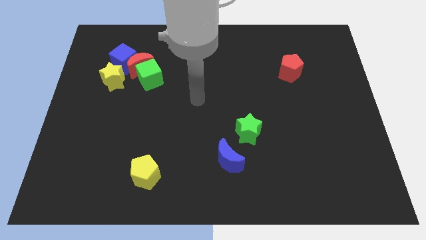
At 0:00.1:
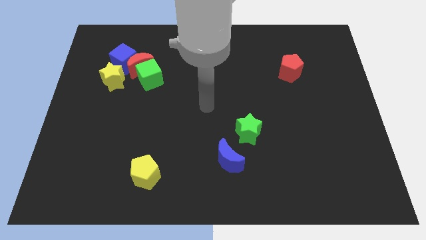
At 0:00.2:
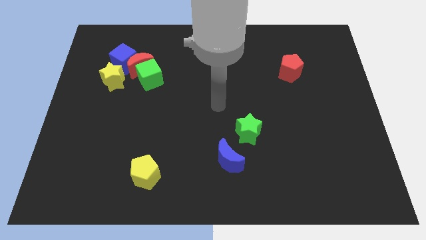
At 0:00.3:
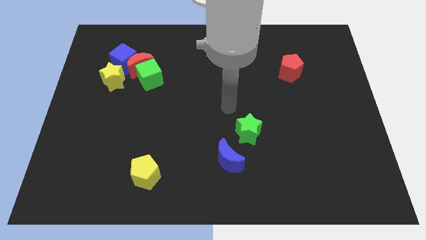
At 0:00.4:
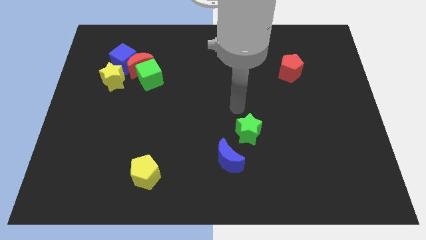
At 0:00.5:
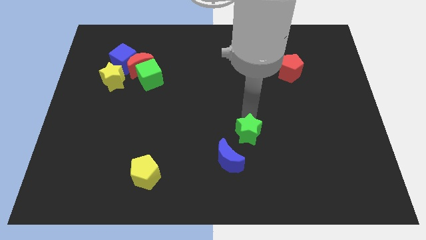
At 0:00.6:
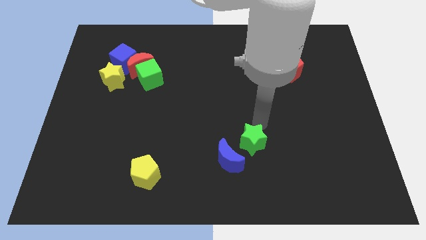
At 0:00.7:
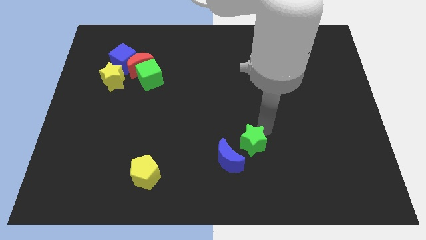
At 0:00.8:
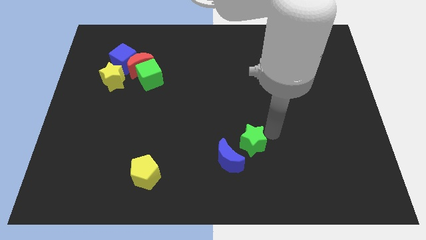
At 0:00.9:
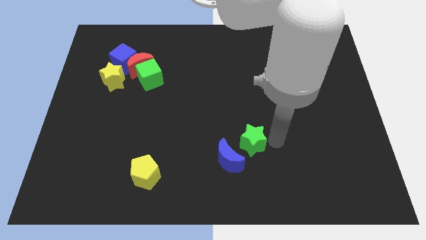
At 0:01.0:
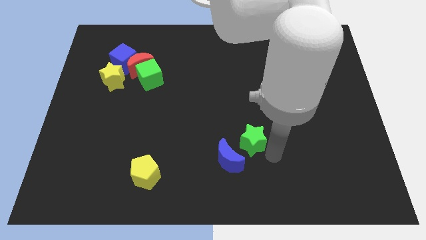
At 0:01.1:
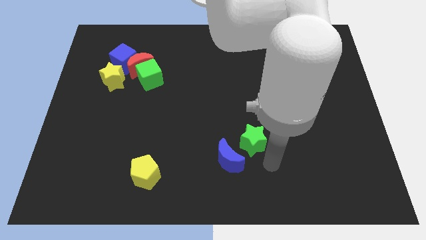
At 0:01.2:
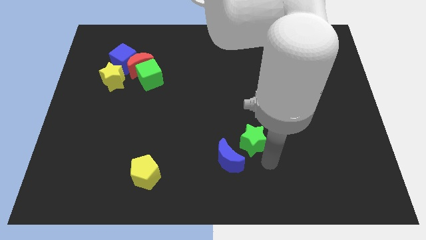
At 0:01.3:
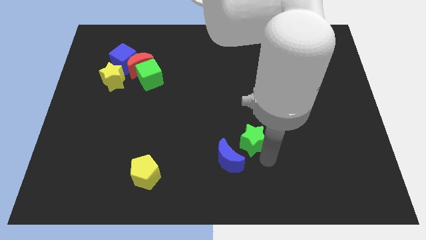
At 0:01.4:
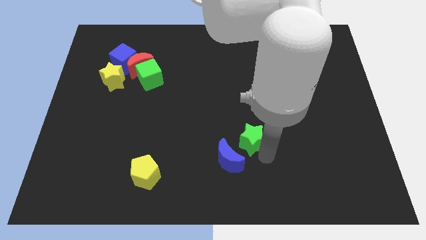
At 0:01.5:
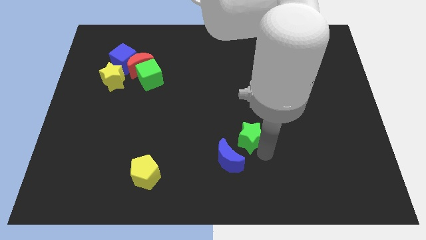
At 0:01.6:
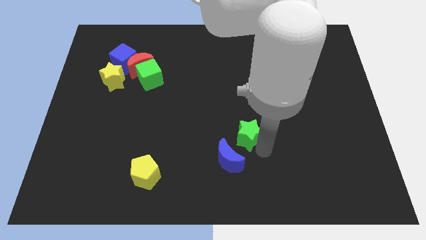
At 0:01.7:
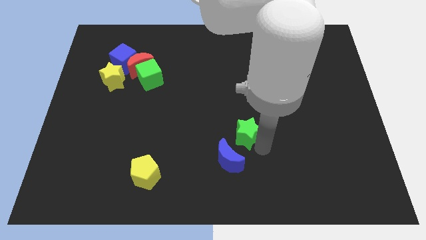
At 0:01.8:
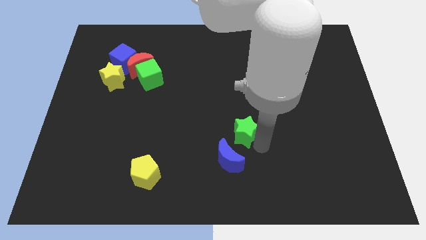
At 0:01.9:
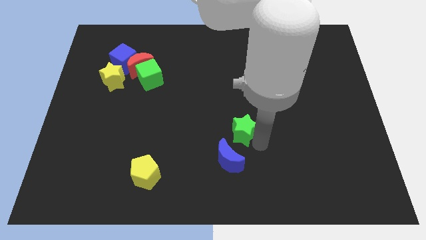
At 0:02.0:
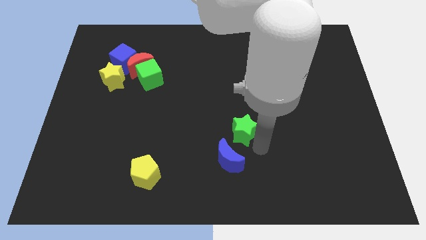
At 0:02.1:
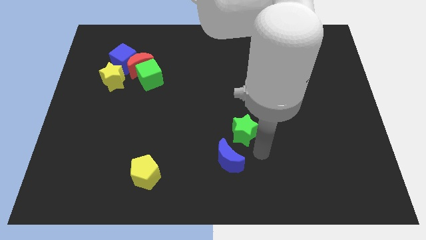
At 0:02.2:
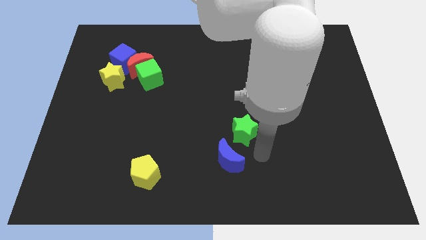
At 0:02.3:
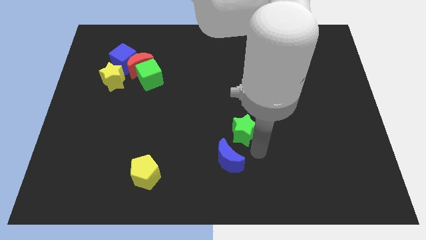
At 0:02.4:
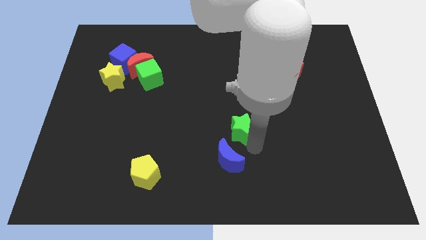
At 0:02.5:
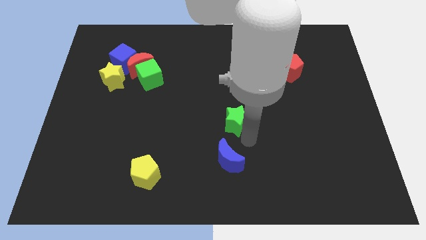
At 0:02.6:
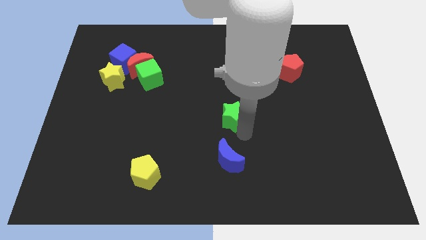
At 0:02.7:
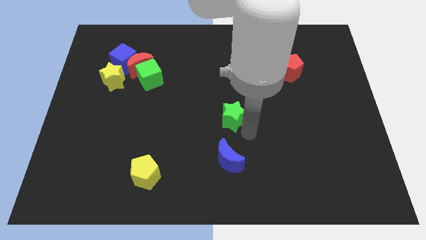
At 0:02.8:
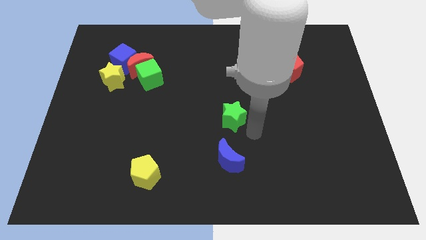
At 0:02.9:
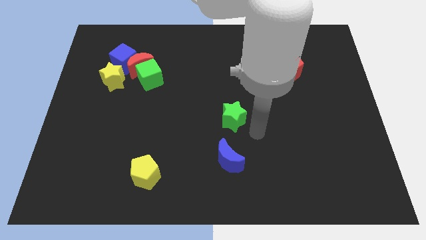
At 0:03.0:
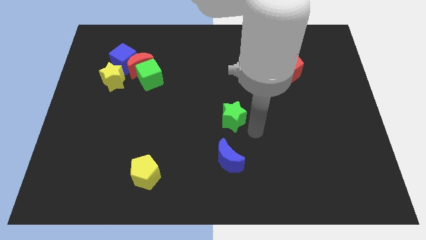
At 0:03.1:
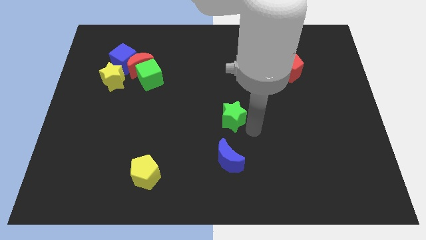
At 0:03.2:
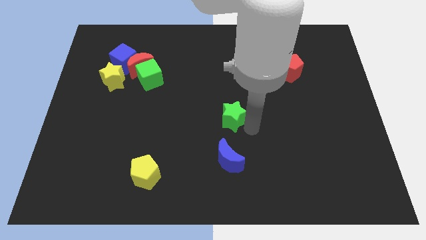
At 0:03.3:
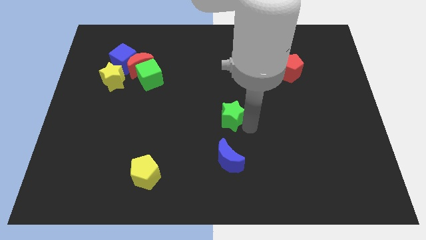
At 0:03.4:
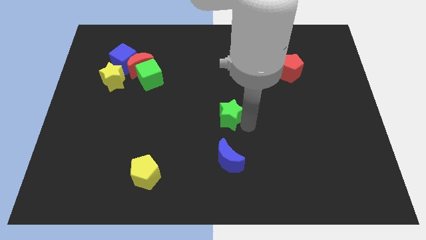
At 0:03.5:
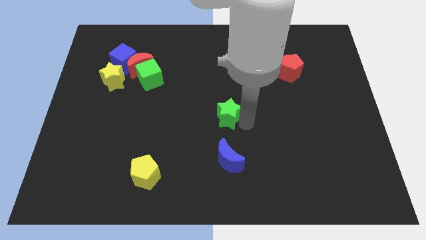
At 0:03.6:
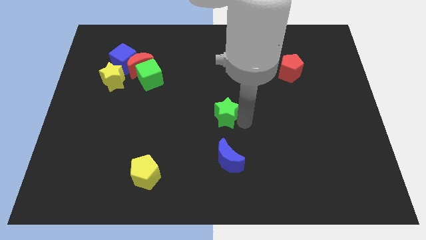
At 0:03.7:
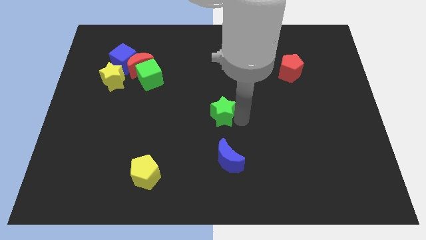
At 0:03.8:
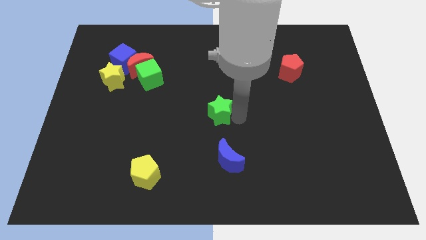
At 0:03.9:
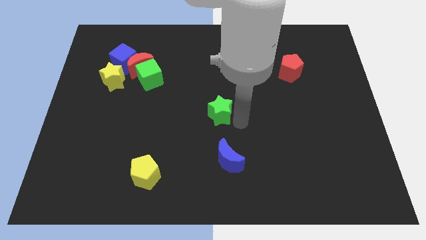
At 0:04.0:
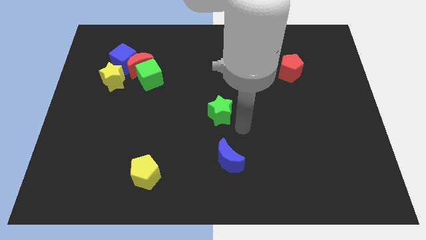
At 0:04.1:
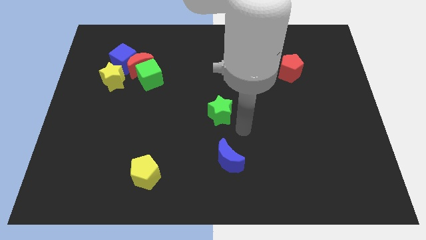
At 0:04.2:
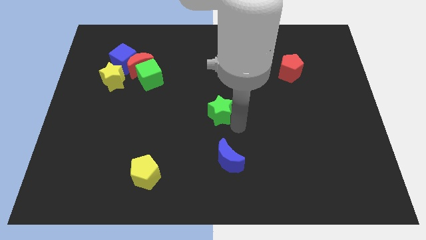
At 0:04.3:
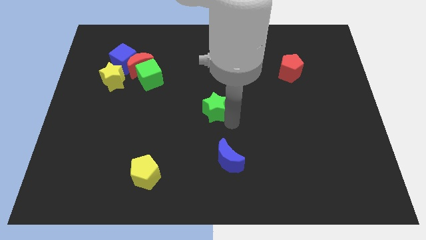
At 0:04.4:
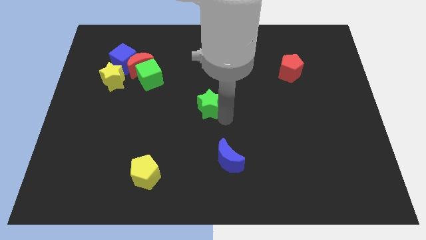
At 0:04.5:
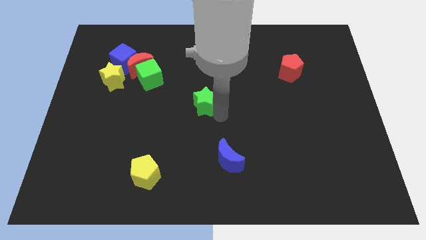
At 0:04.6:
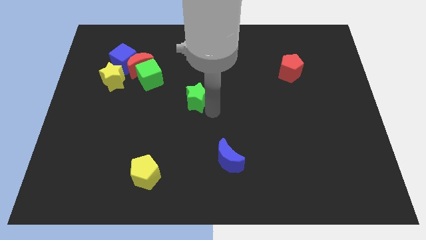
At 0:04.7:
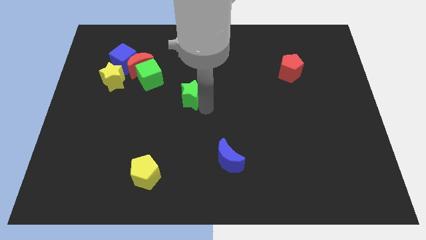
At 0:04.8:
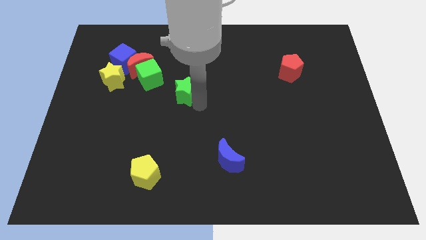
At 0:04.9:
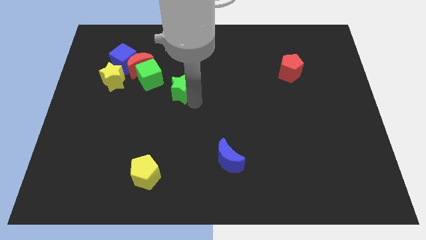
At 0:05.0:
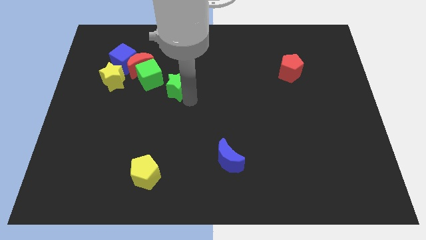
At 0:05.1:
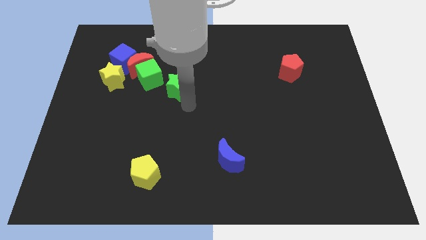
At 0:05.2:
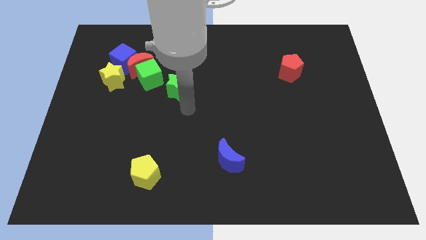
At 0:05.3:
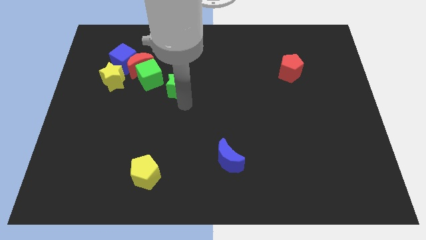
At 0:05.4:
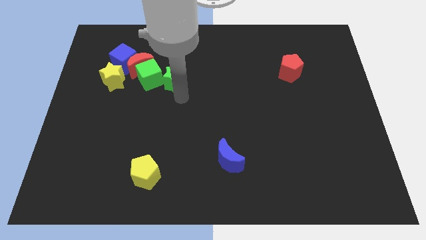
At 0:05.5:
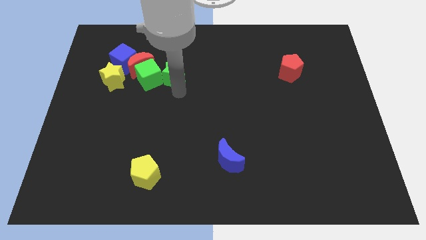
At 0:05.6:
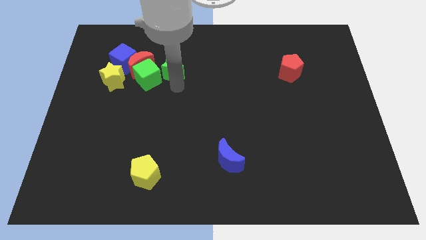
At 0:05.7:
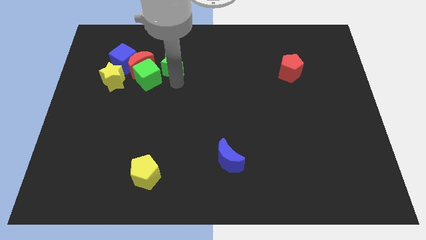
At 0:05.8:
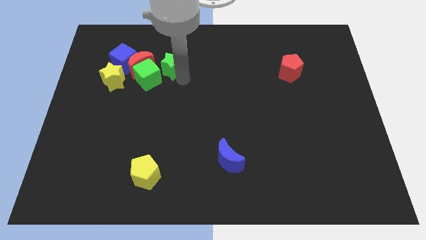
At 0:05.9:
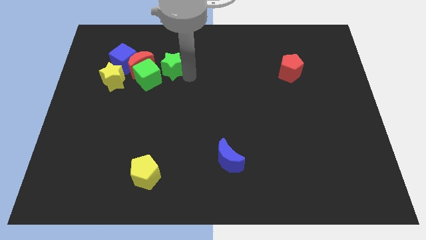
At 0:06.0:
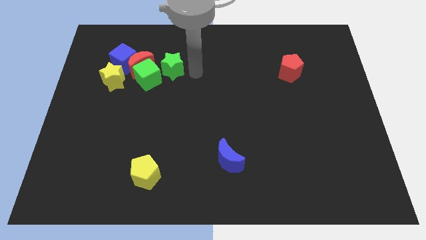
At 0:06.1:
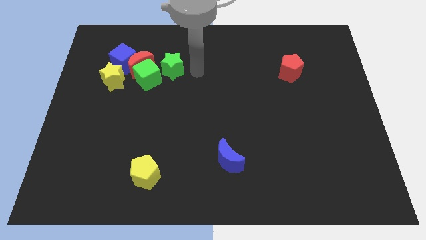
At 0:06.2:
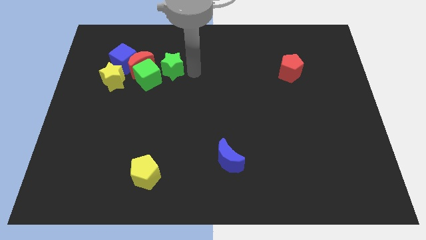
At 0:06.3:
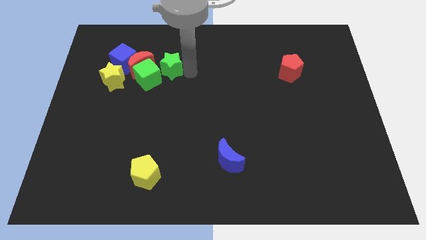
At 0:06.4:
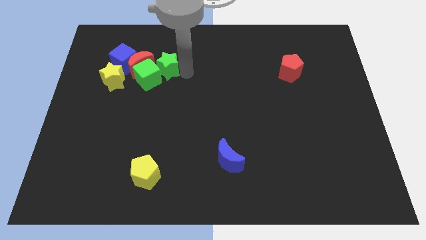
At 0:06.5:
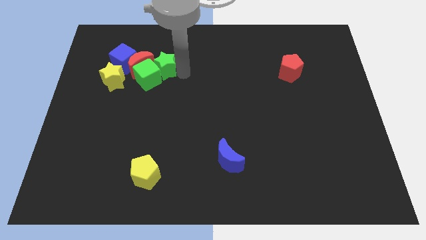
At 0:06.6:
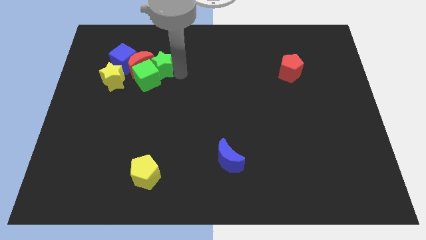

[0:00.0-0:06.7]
slide the green star close to the red moon

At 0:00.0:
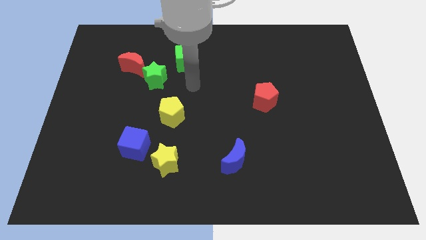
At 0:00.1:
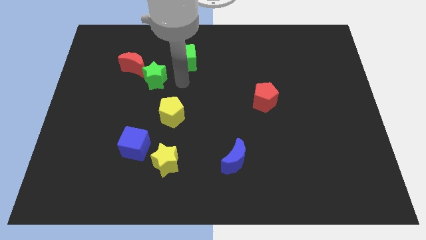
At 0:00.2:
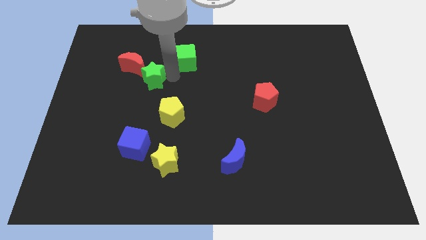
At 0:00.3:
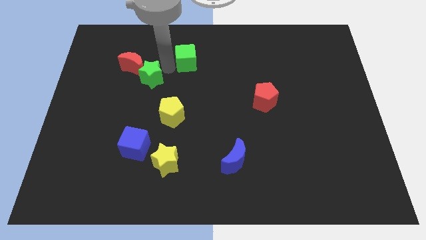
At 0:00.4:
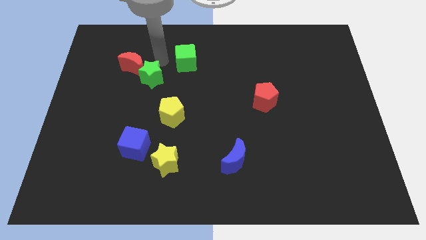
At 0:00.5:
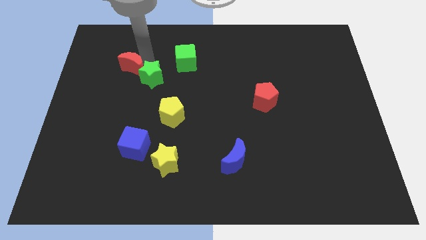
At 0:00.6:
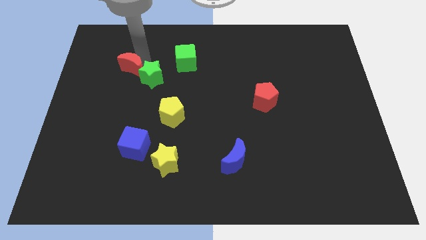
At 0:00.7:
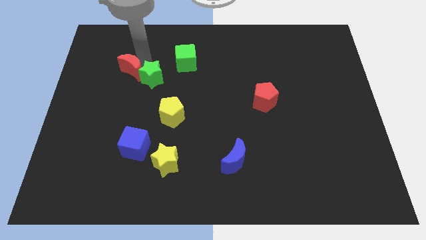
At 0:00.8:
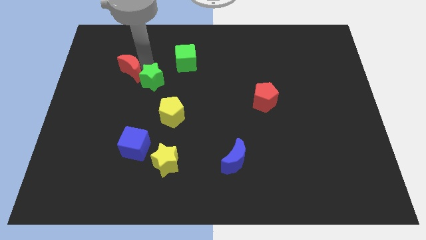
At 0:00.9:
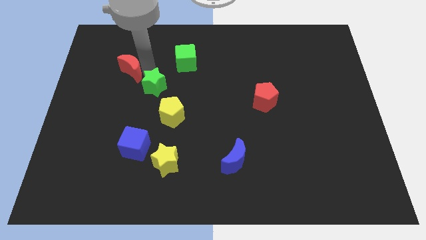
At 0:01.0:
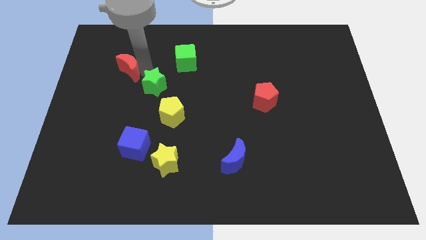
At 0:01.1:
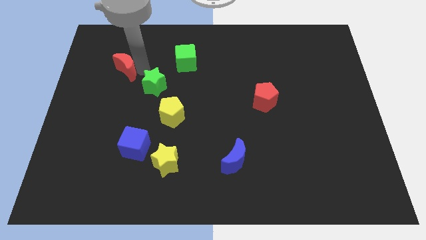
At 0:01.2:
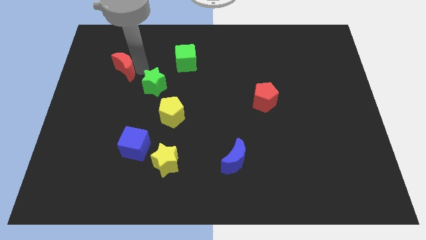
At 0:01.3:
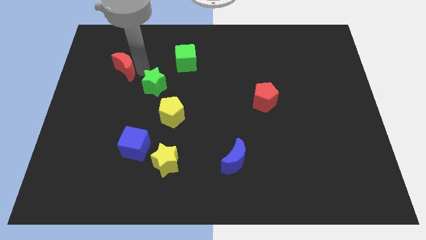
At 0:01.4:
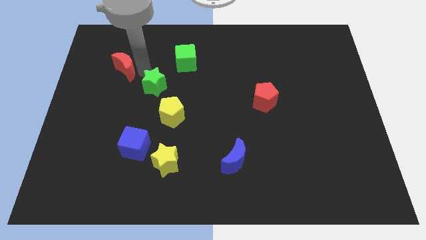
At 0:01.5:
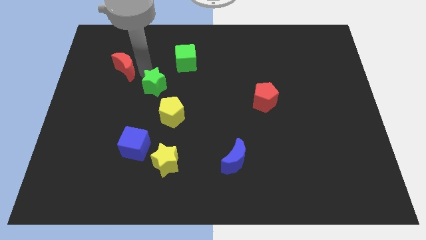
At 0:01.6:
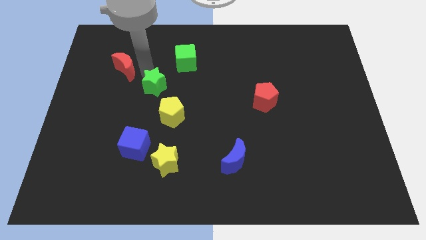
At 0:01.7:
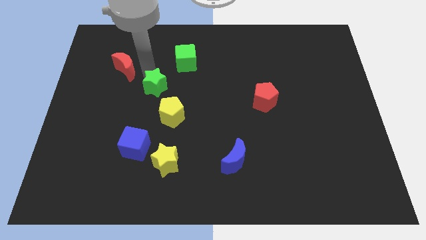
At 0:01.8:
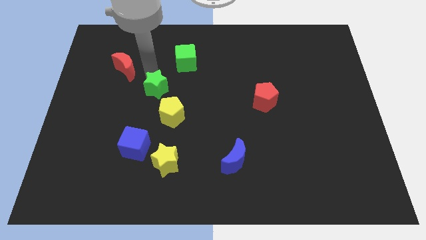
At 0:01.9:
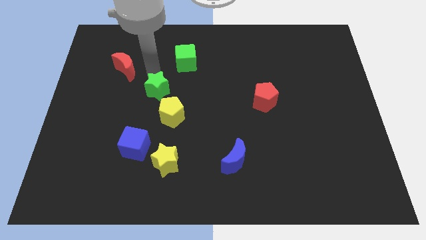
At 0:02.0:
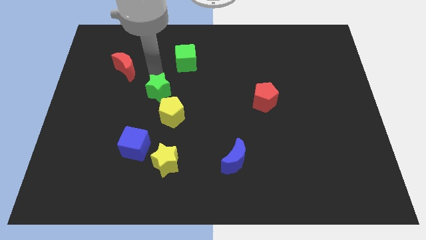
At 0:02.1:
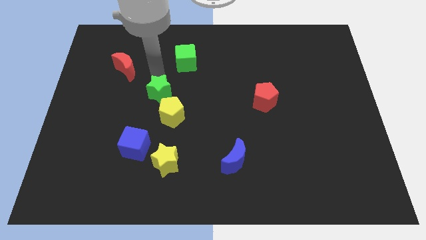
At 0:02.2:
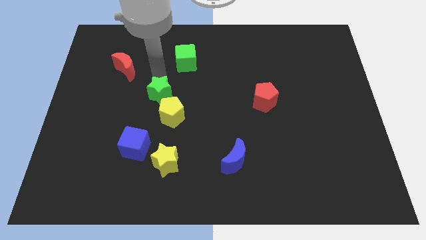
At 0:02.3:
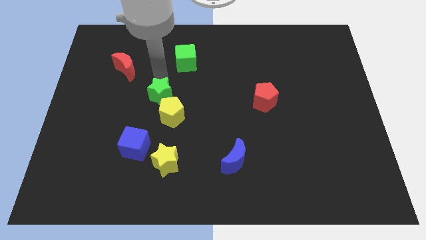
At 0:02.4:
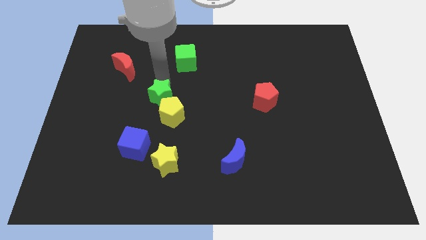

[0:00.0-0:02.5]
push the green star close to the yellow pentagon
